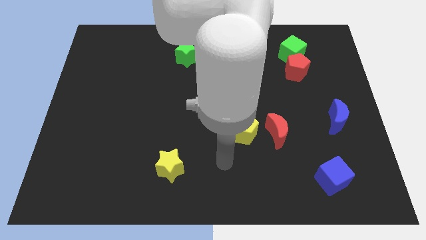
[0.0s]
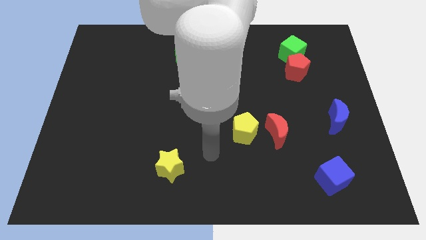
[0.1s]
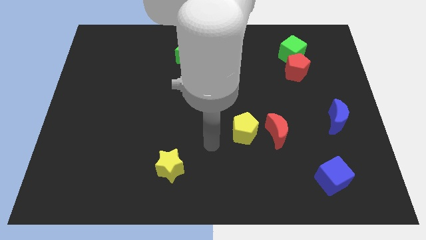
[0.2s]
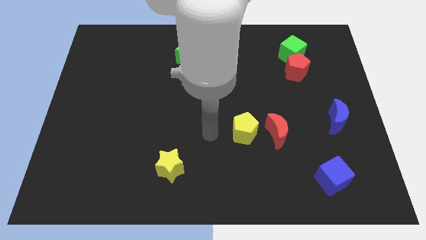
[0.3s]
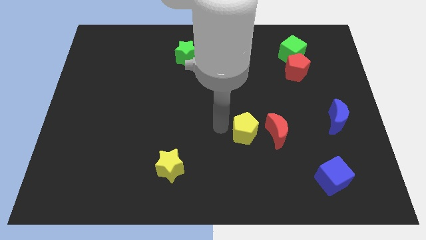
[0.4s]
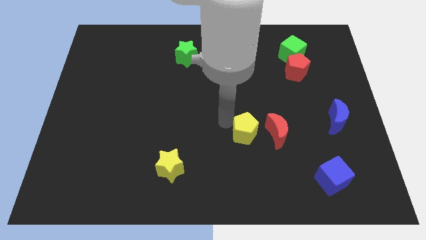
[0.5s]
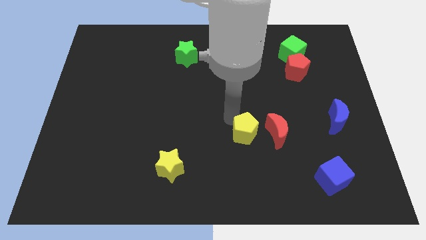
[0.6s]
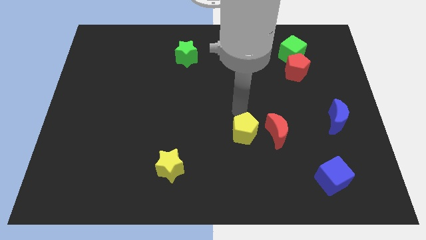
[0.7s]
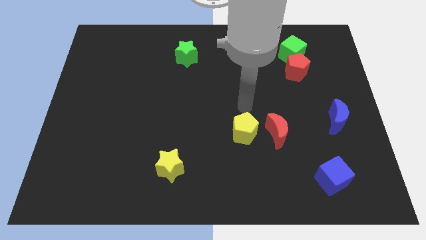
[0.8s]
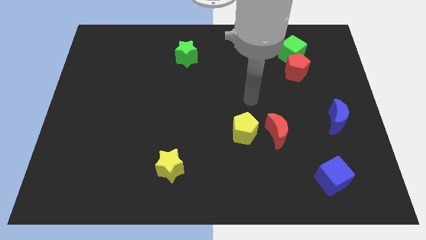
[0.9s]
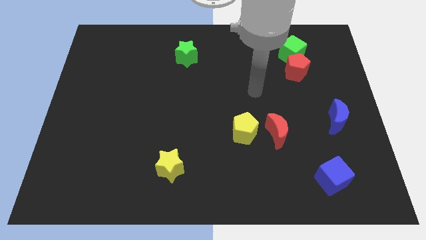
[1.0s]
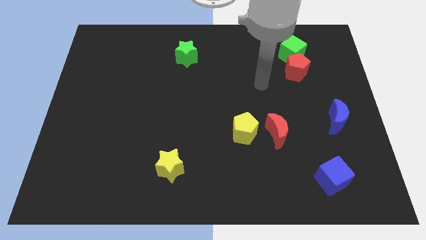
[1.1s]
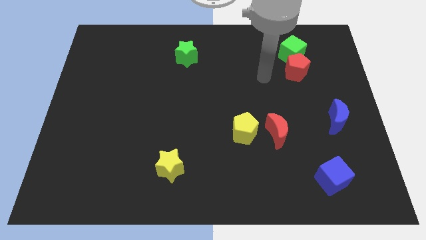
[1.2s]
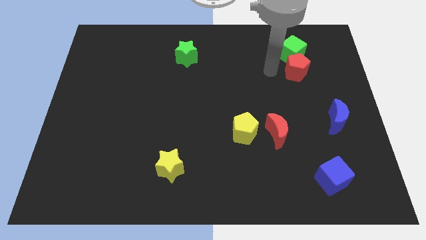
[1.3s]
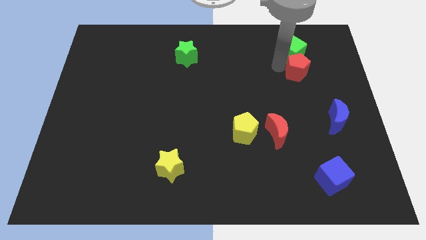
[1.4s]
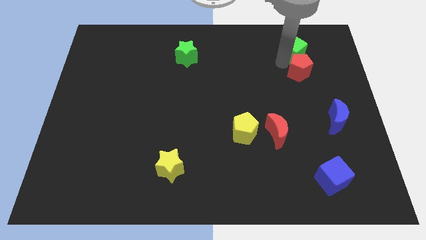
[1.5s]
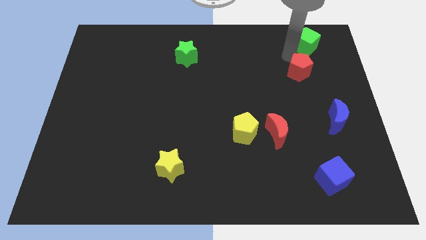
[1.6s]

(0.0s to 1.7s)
pull the red pentagon apart from the green cube

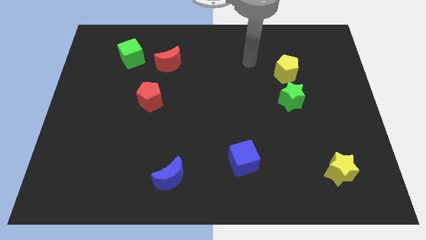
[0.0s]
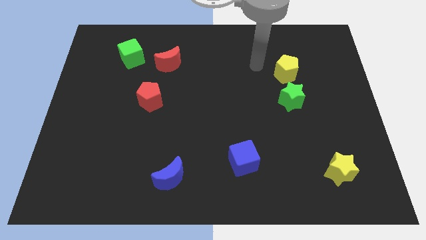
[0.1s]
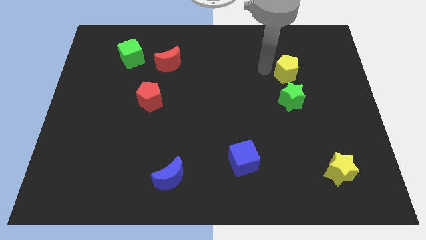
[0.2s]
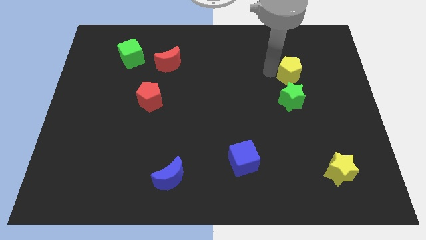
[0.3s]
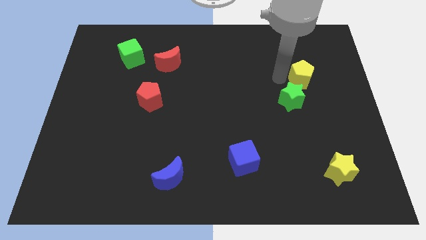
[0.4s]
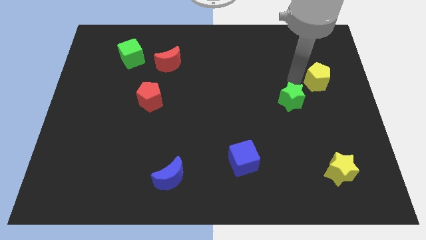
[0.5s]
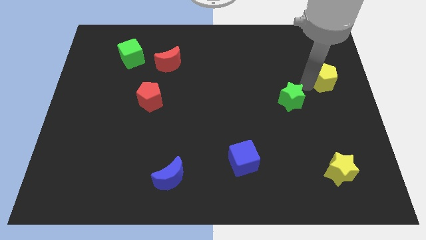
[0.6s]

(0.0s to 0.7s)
separate the green star from the yellow pentagon

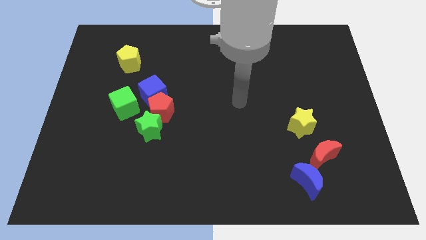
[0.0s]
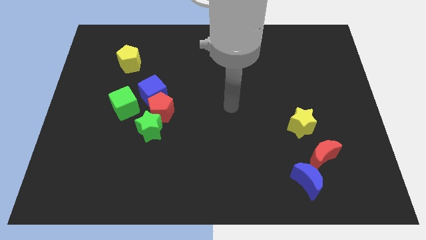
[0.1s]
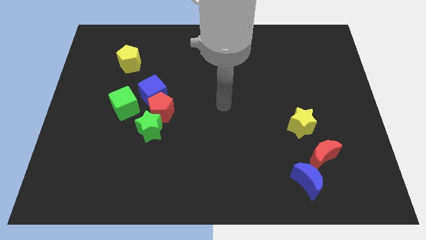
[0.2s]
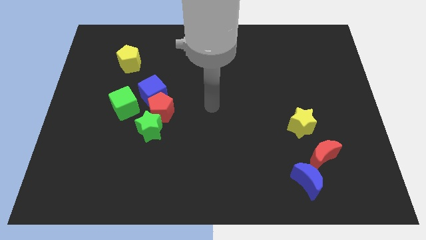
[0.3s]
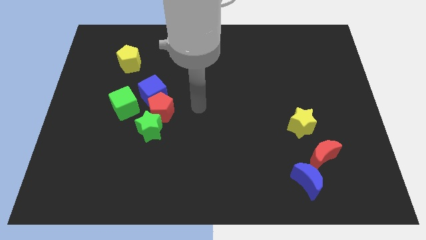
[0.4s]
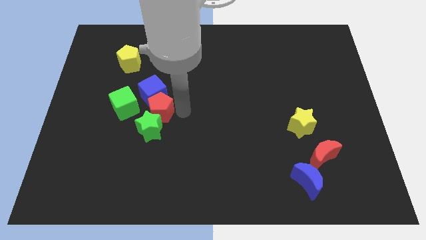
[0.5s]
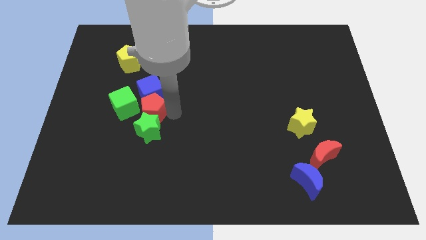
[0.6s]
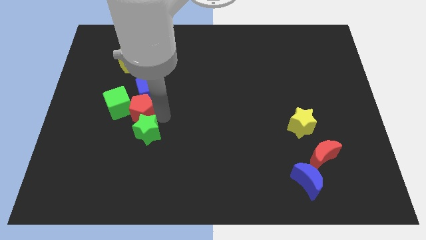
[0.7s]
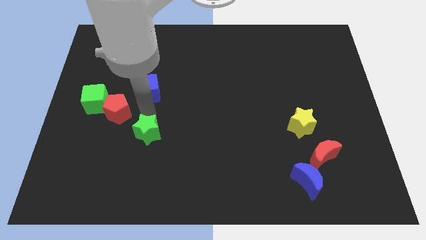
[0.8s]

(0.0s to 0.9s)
move the blue cube away from the red pentagon and green cube

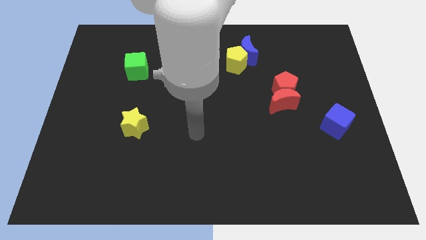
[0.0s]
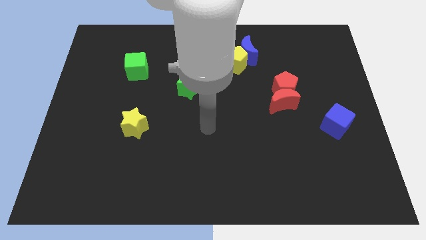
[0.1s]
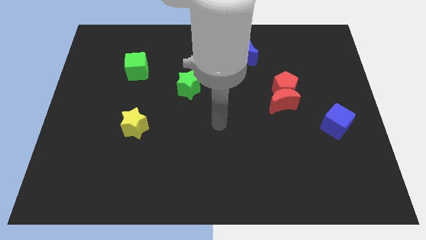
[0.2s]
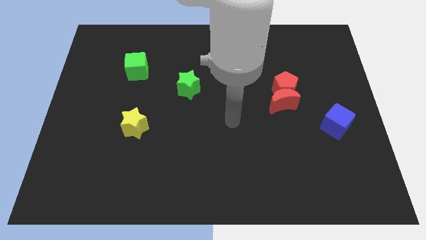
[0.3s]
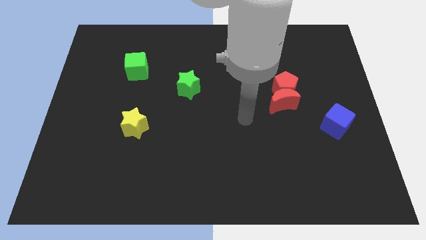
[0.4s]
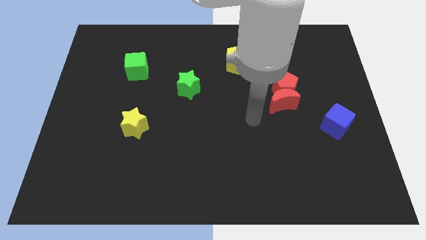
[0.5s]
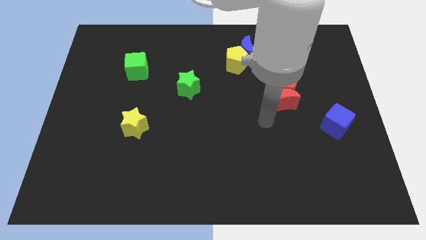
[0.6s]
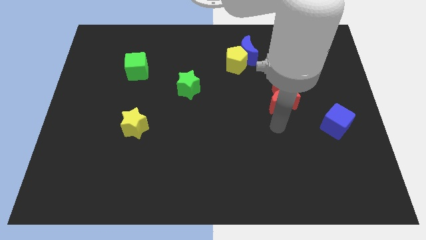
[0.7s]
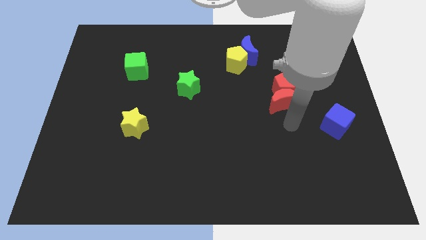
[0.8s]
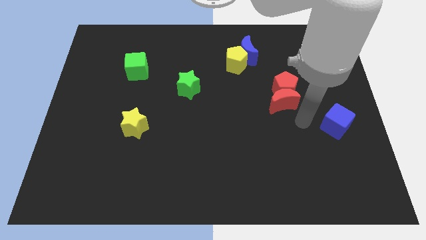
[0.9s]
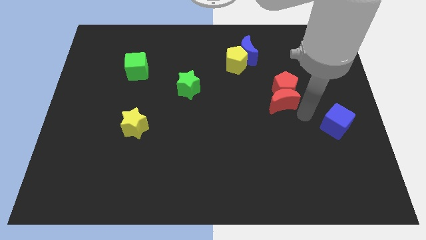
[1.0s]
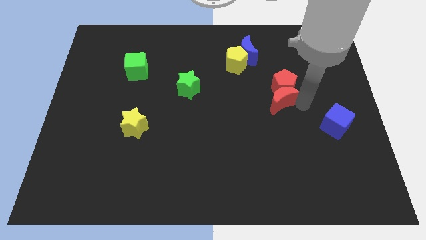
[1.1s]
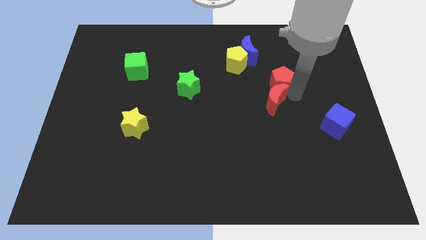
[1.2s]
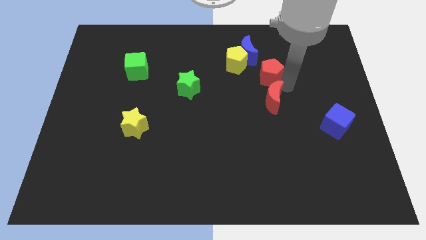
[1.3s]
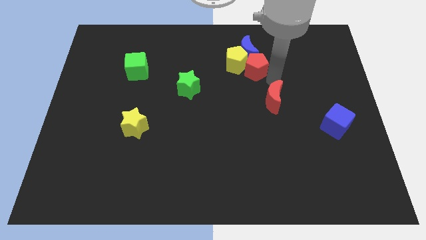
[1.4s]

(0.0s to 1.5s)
separate the red moon from the red pentagon

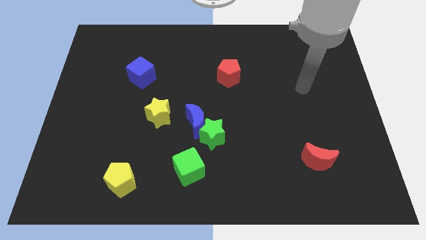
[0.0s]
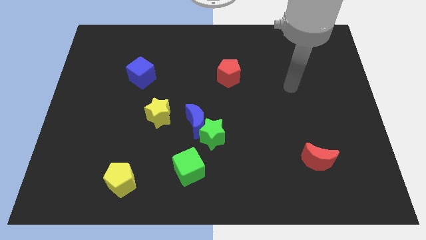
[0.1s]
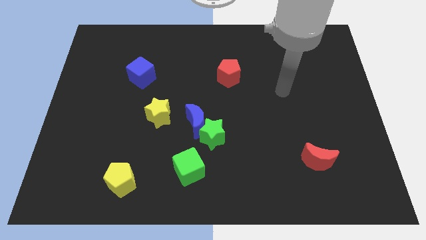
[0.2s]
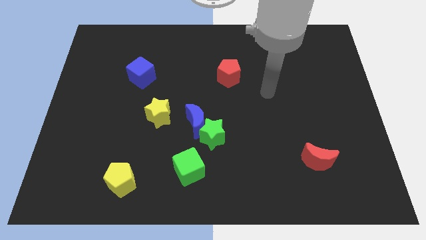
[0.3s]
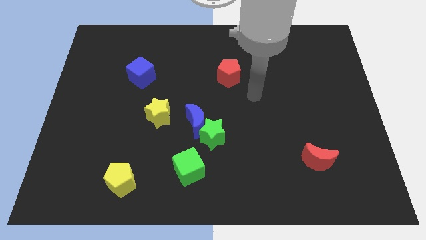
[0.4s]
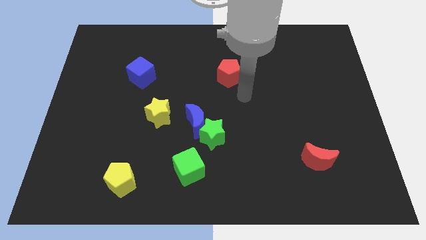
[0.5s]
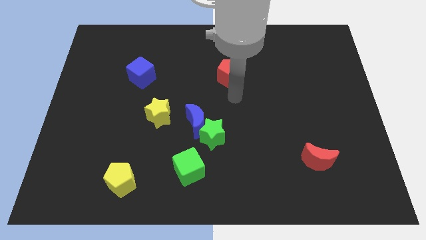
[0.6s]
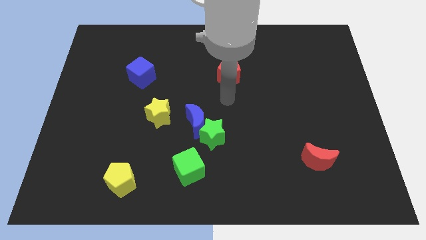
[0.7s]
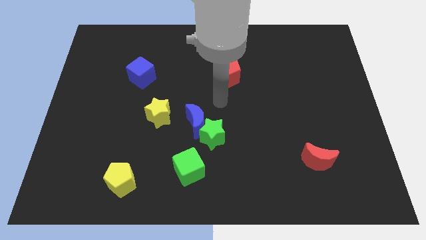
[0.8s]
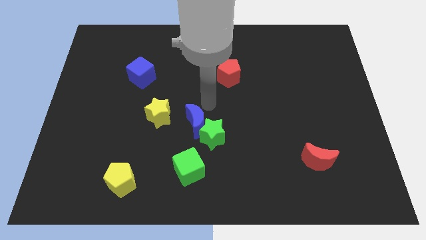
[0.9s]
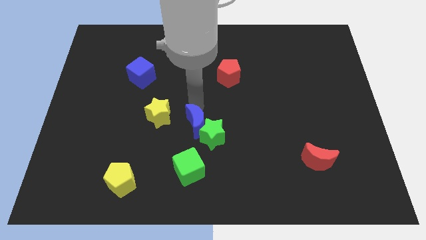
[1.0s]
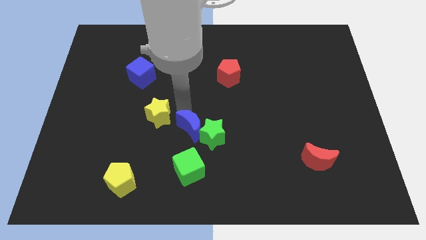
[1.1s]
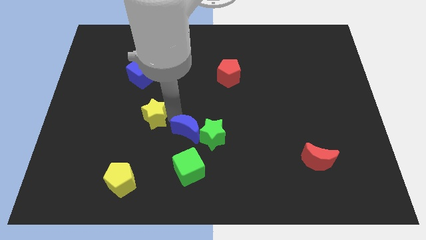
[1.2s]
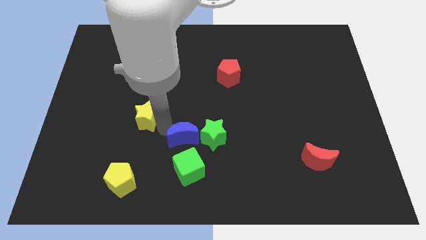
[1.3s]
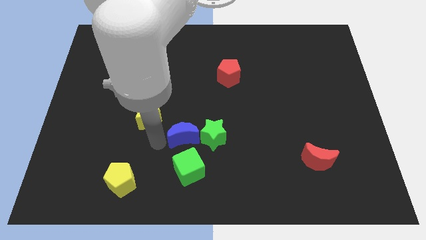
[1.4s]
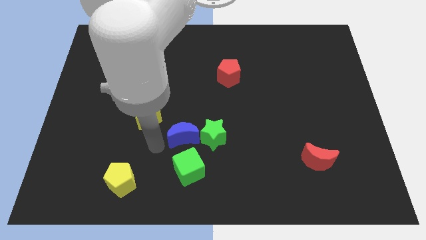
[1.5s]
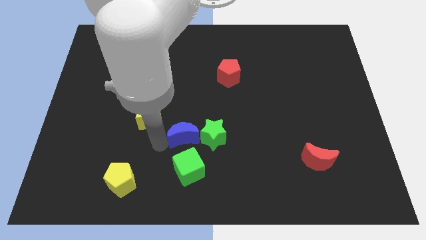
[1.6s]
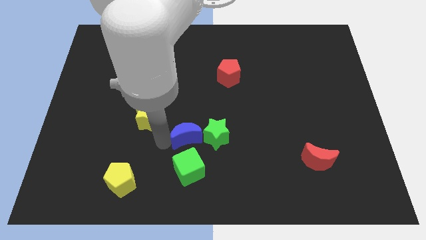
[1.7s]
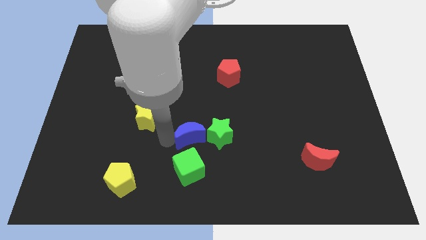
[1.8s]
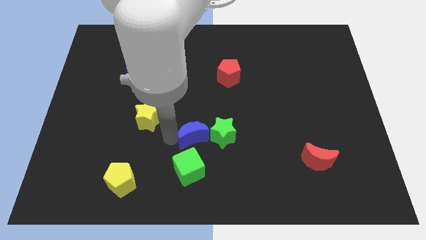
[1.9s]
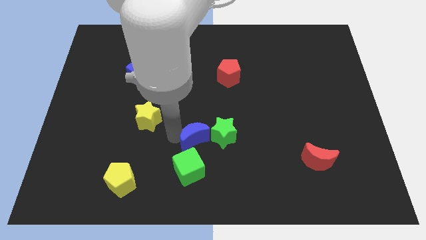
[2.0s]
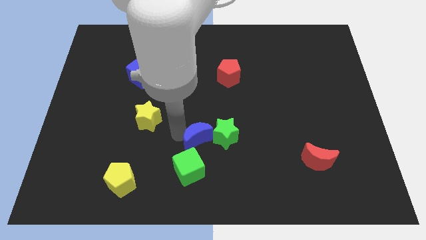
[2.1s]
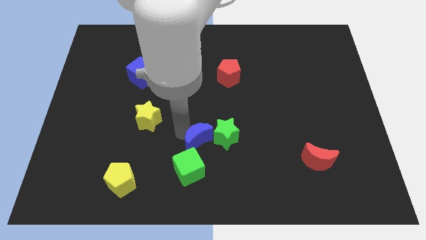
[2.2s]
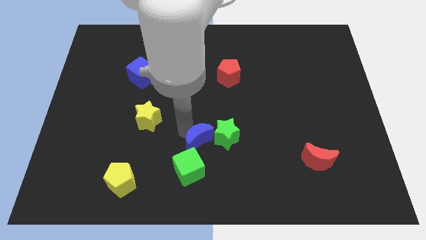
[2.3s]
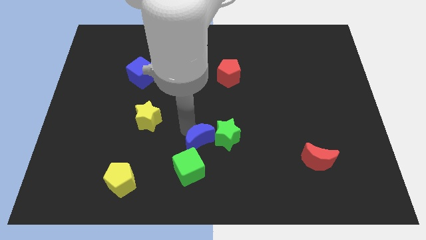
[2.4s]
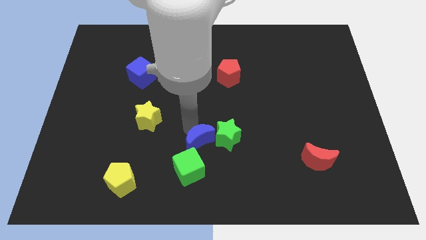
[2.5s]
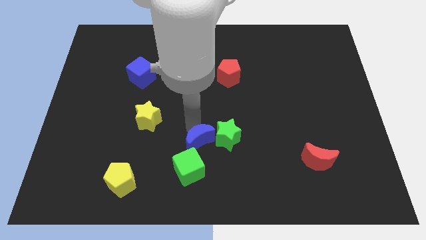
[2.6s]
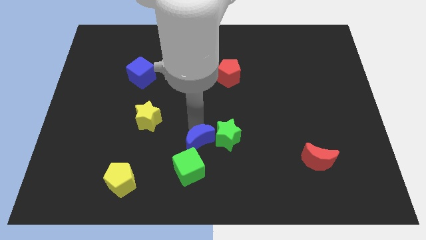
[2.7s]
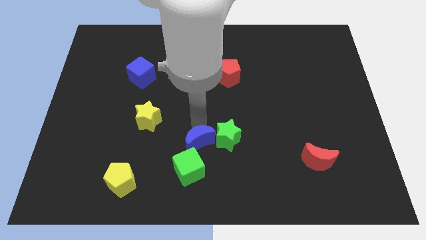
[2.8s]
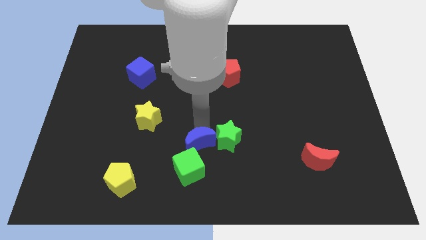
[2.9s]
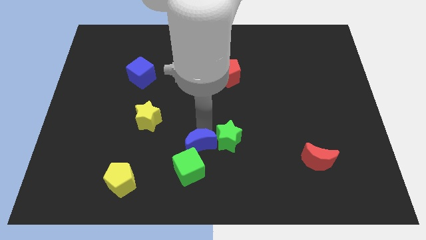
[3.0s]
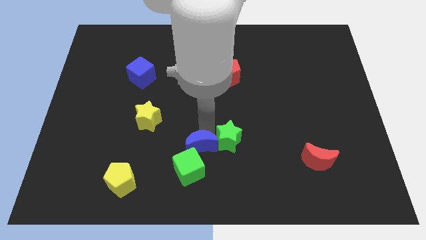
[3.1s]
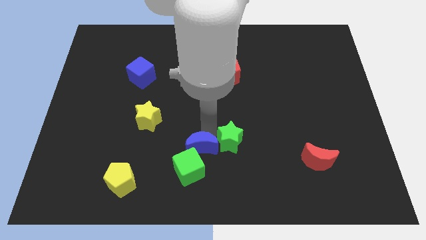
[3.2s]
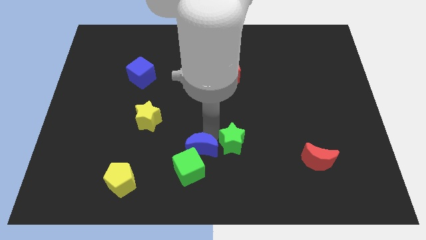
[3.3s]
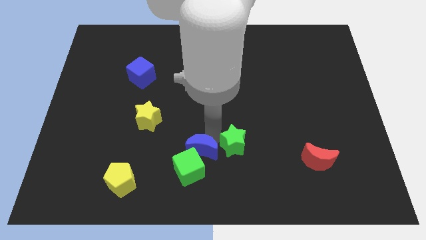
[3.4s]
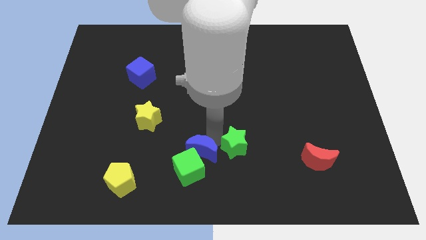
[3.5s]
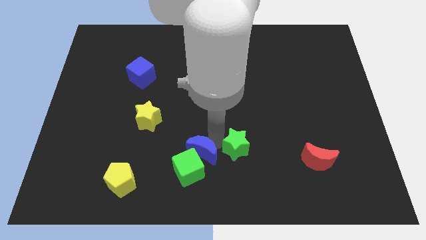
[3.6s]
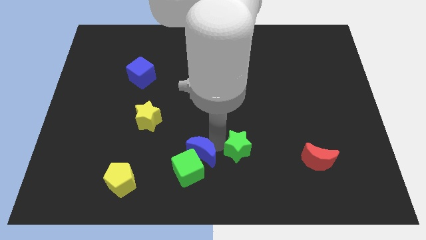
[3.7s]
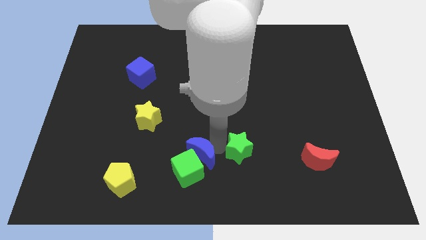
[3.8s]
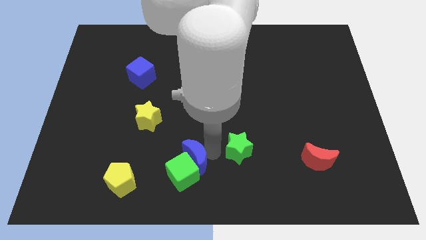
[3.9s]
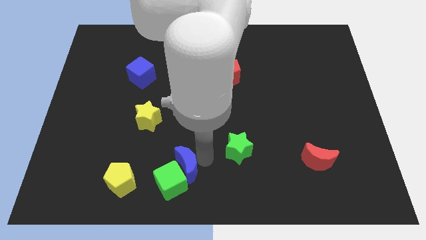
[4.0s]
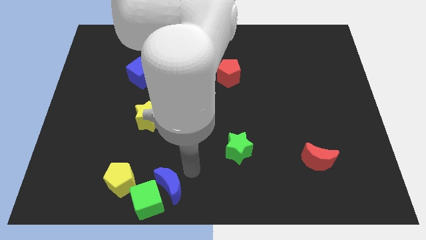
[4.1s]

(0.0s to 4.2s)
pull the blue moon apart from the green star and yellow star

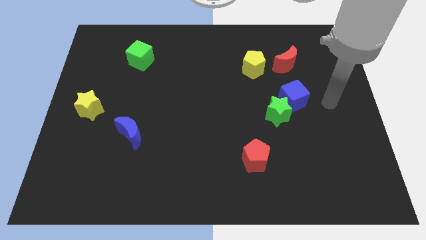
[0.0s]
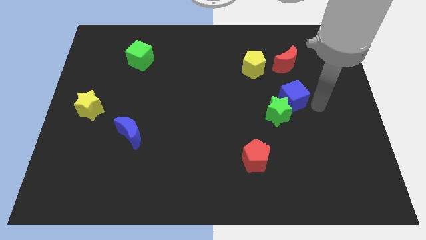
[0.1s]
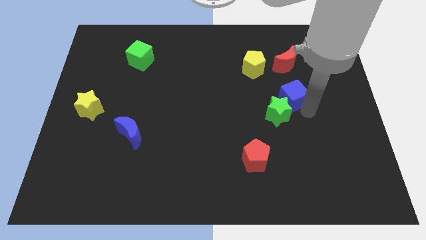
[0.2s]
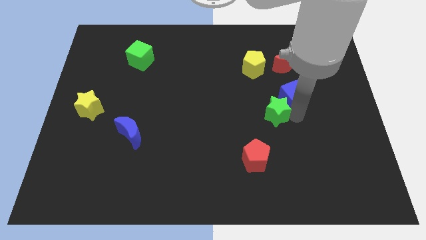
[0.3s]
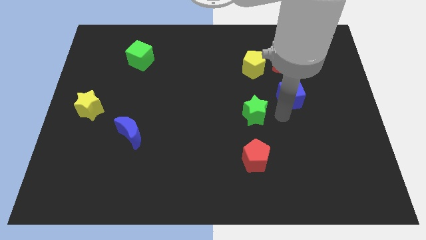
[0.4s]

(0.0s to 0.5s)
separate the blue cube from the green star
